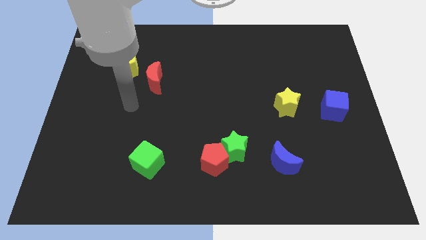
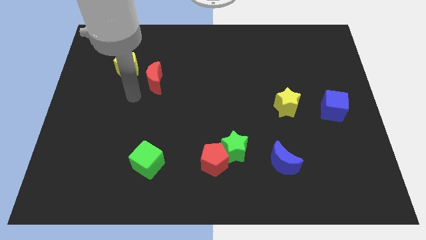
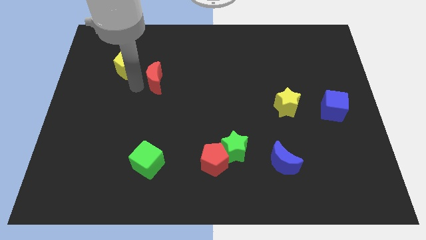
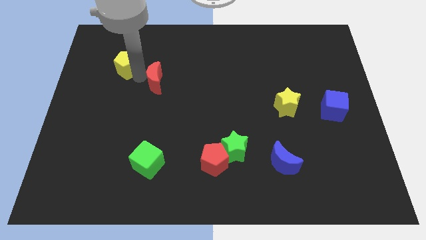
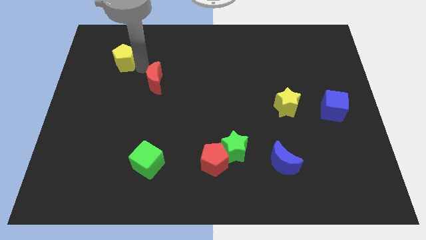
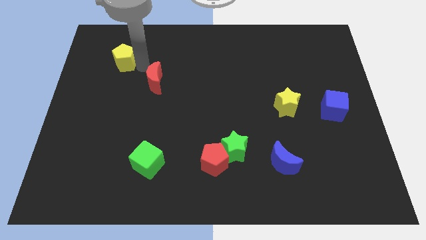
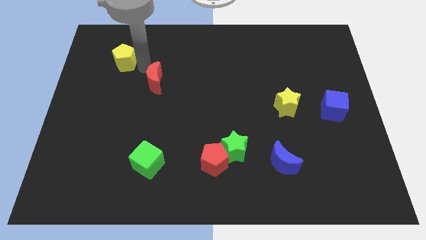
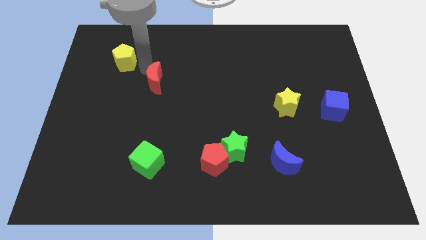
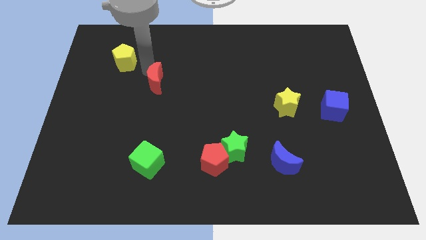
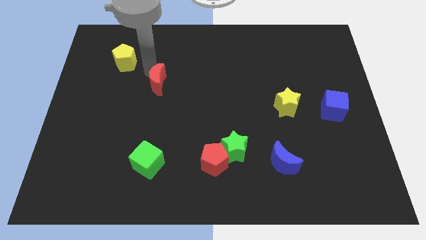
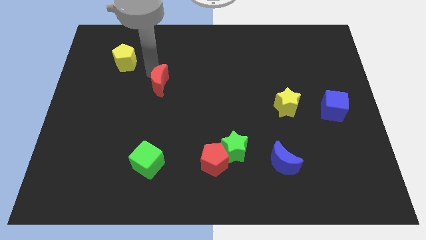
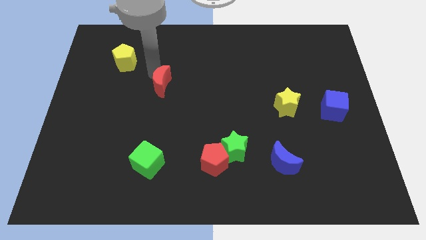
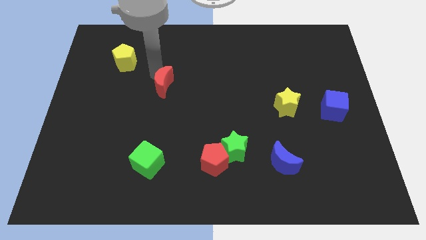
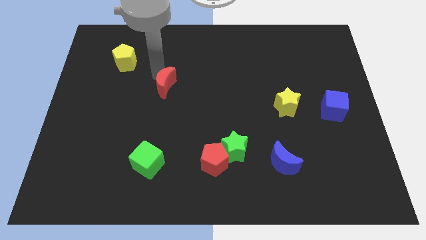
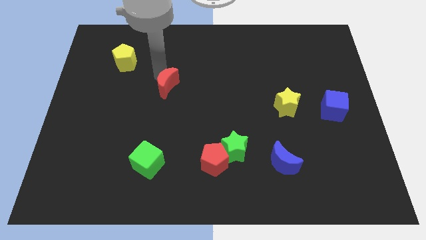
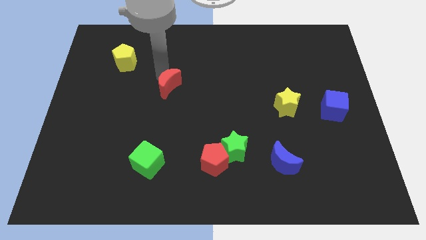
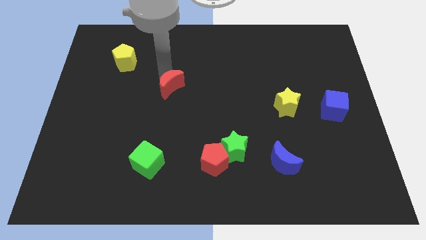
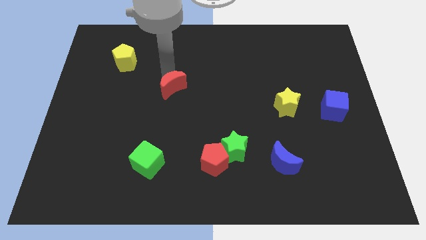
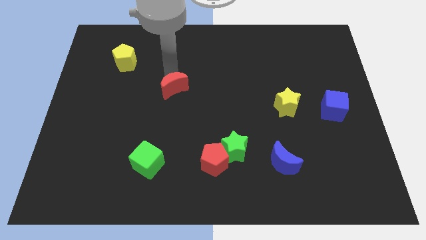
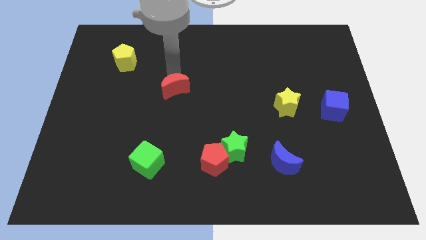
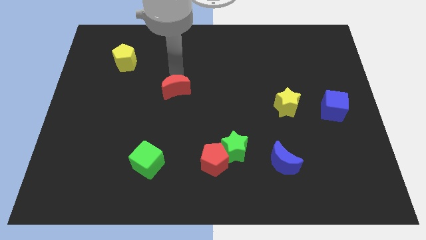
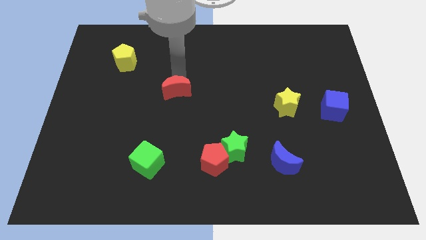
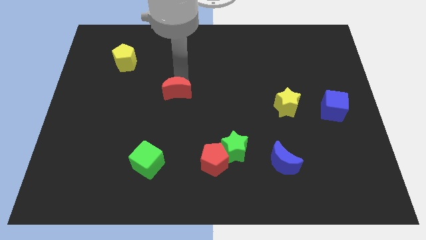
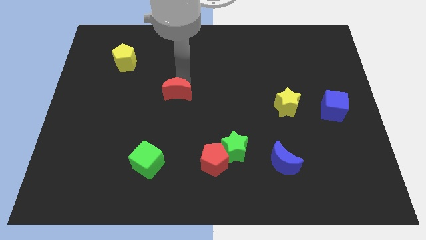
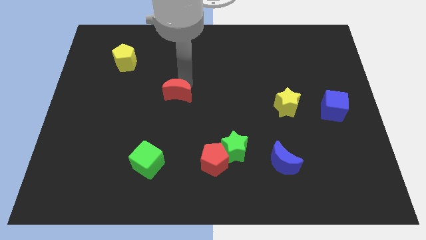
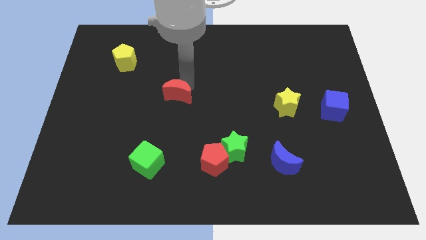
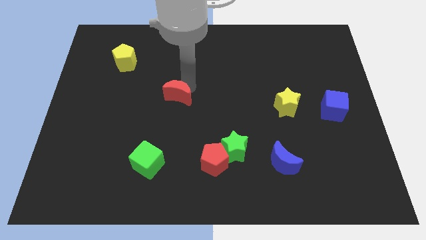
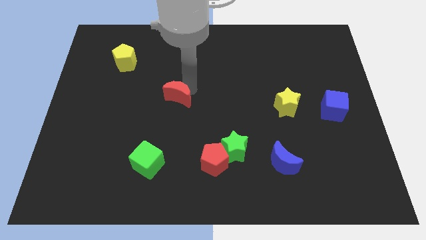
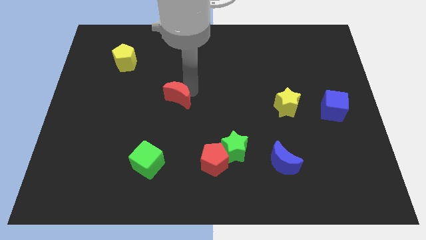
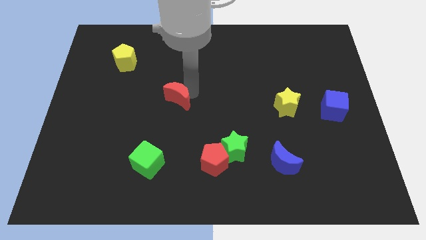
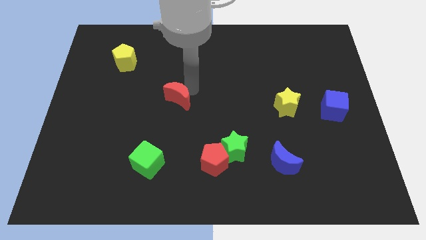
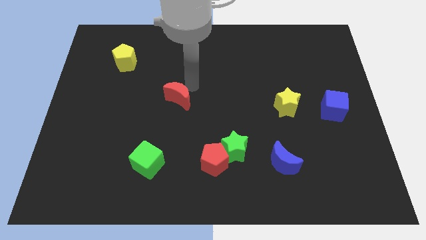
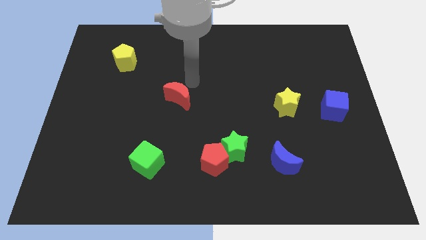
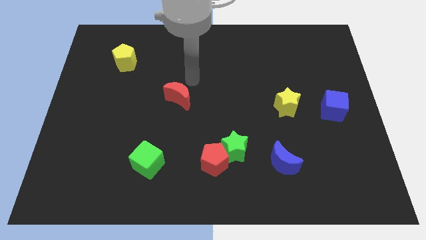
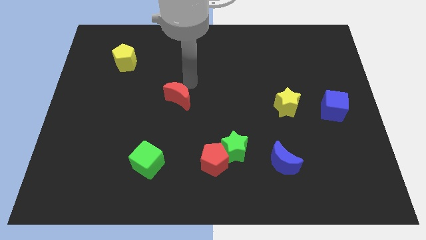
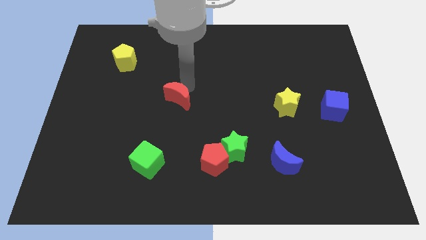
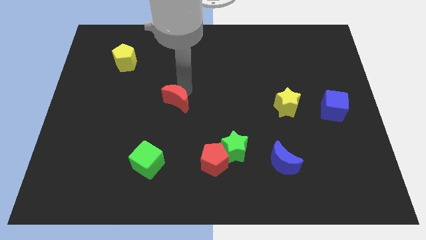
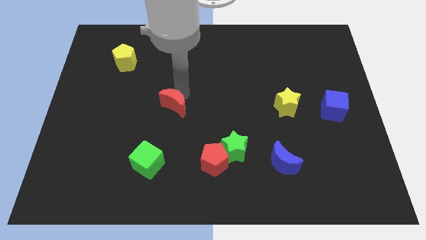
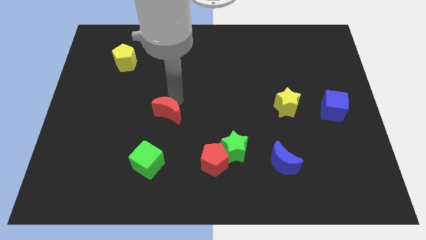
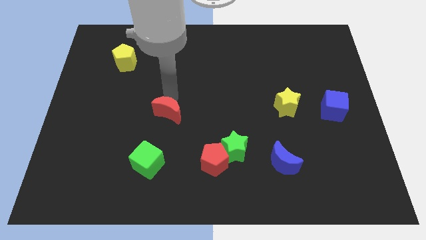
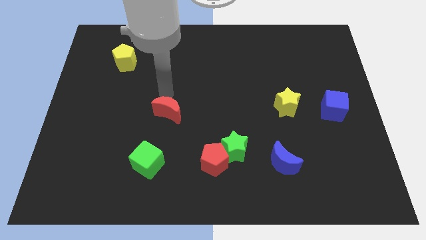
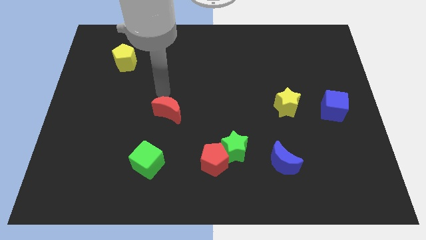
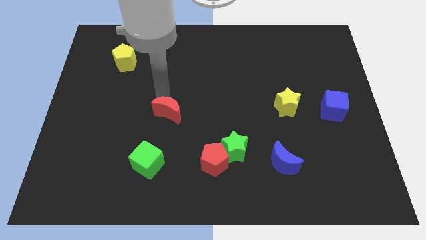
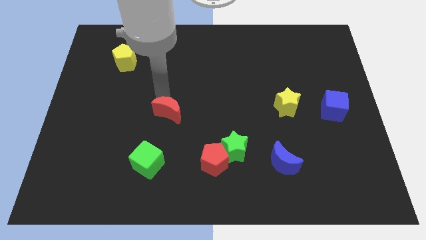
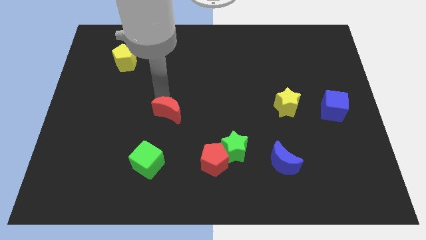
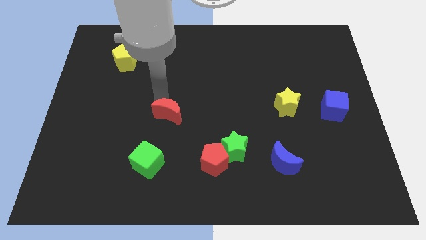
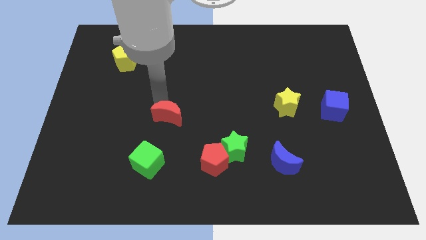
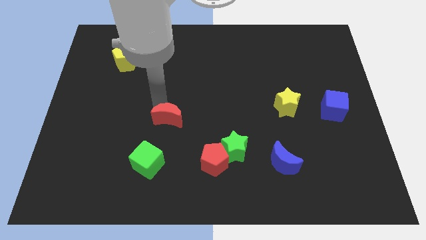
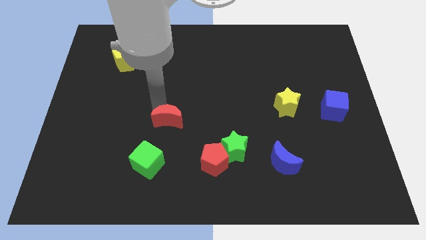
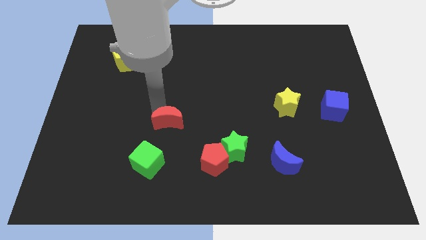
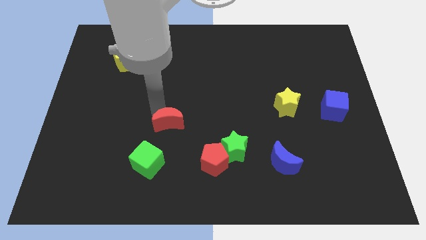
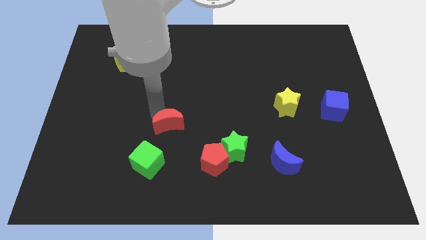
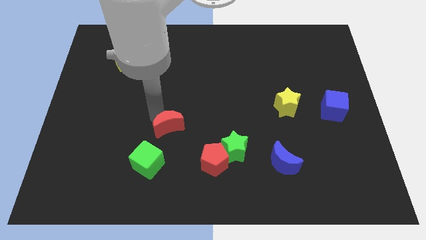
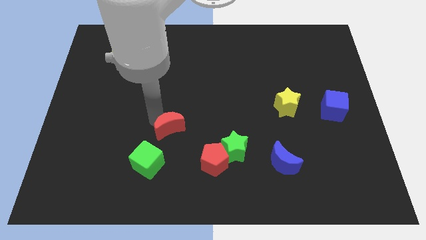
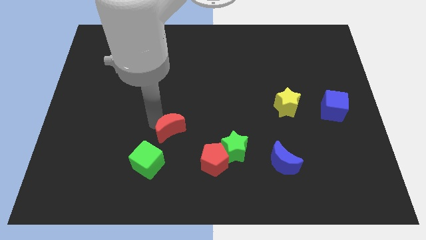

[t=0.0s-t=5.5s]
push the red moon diagonally up and to the left of the red pentagon
